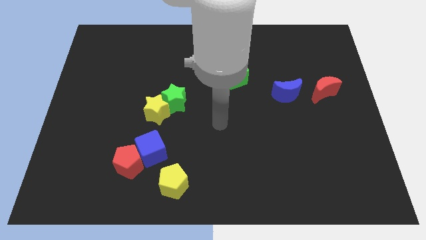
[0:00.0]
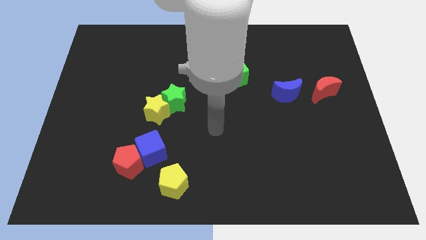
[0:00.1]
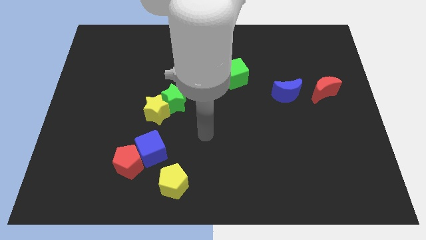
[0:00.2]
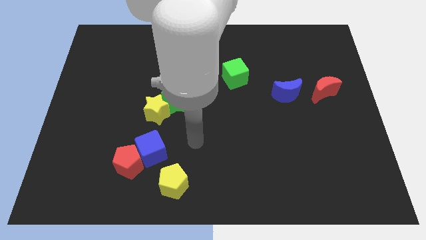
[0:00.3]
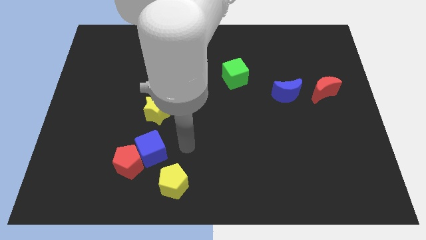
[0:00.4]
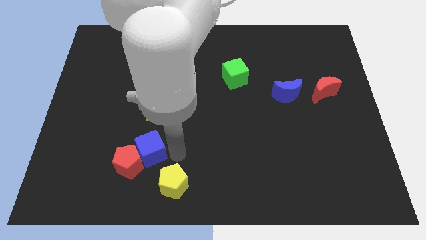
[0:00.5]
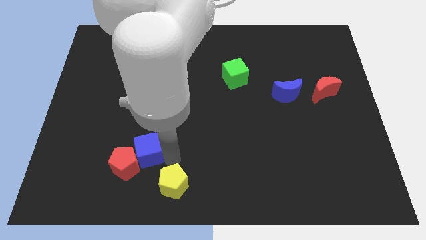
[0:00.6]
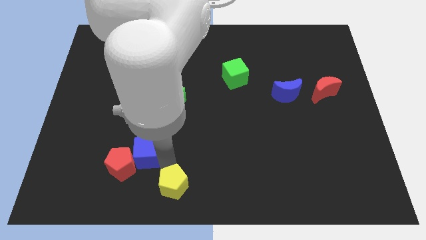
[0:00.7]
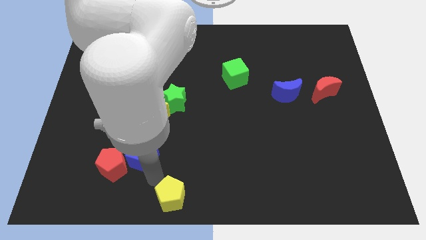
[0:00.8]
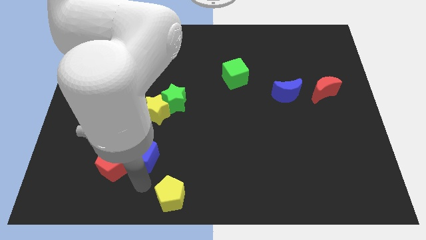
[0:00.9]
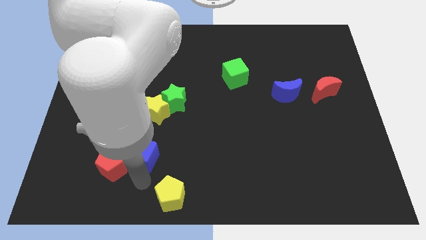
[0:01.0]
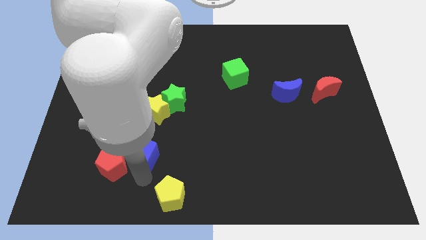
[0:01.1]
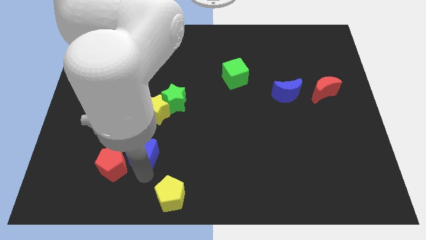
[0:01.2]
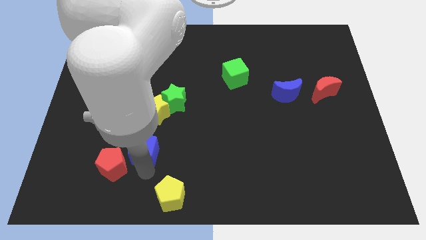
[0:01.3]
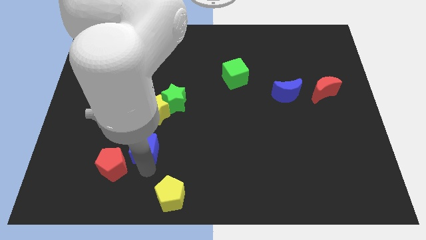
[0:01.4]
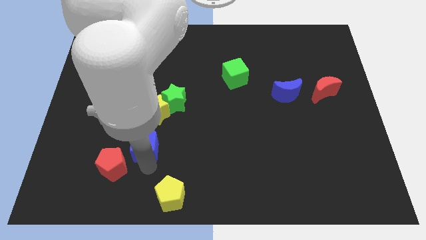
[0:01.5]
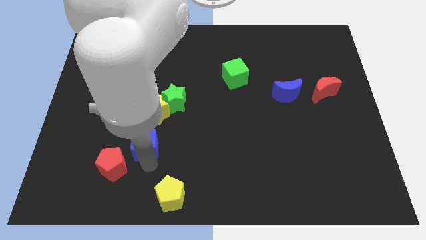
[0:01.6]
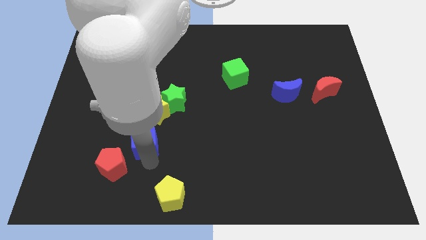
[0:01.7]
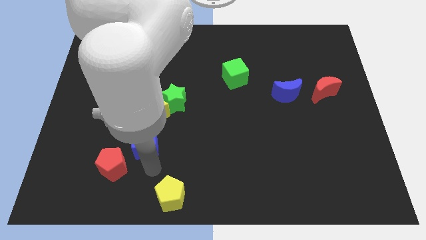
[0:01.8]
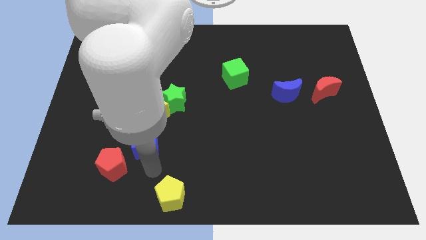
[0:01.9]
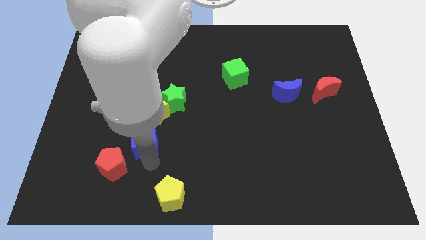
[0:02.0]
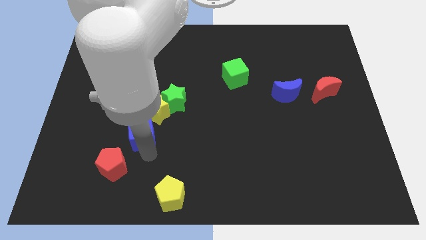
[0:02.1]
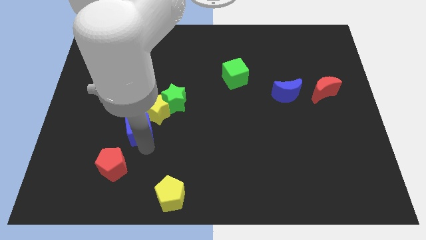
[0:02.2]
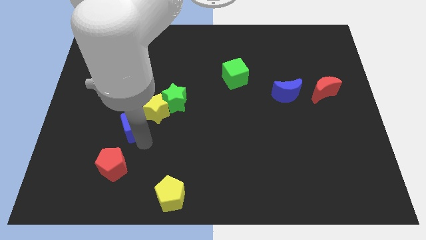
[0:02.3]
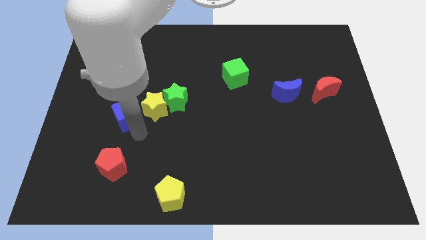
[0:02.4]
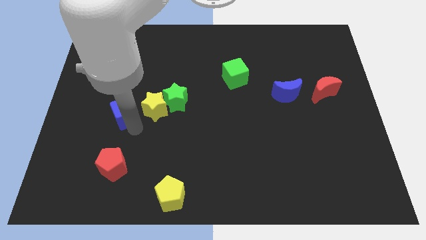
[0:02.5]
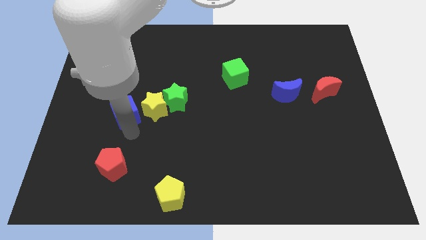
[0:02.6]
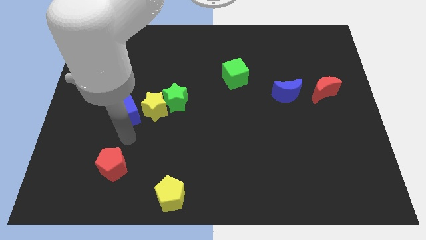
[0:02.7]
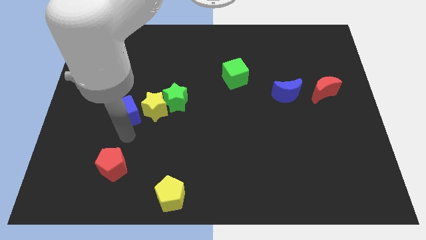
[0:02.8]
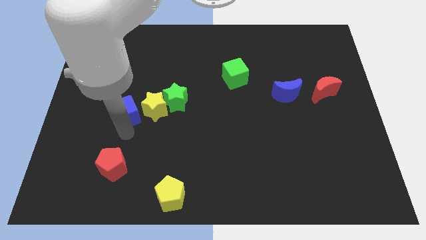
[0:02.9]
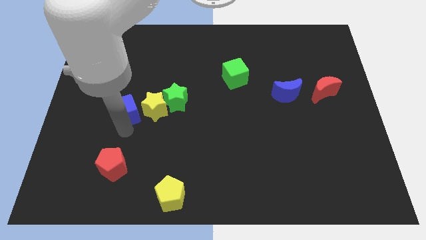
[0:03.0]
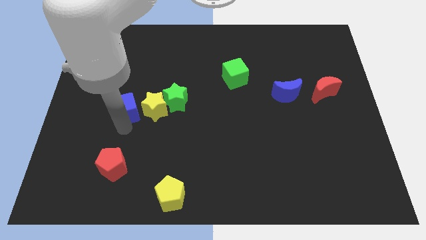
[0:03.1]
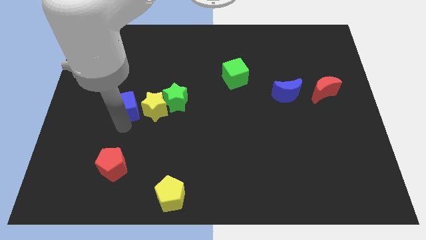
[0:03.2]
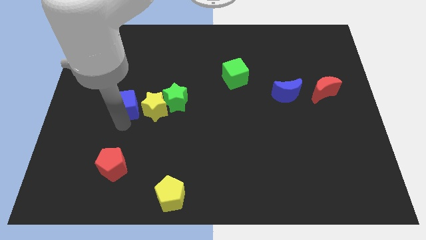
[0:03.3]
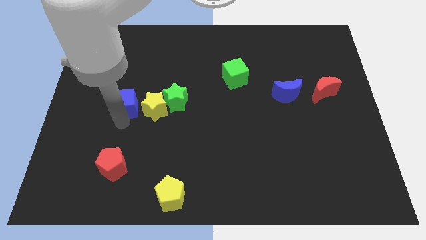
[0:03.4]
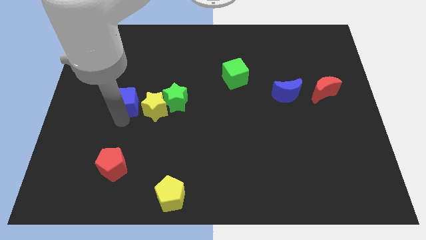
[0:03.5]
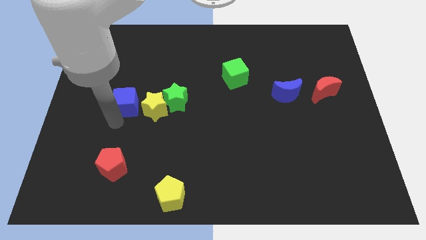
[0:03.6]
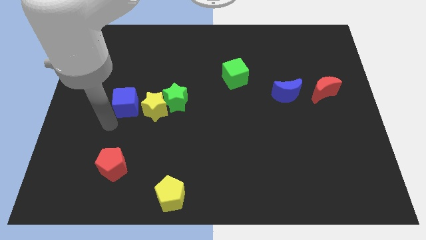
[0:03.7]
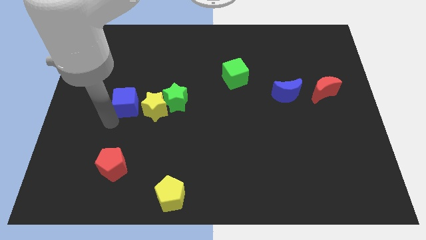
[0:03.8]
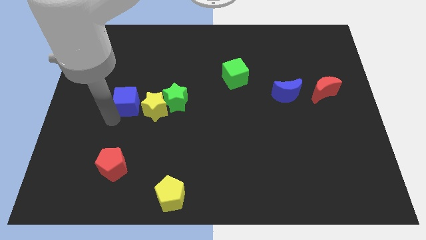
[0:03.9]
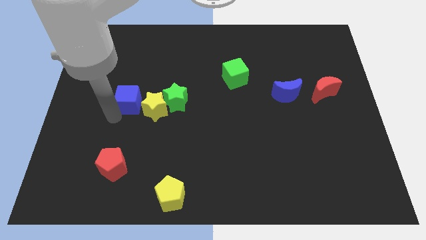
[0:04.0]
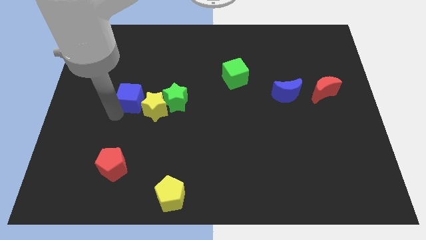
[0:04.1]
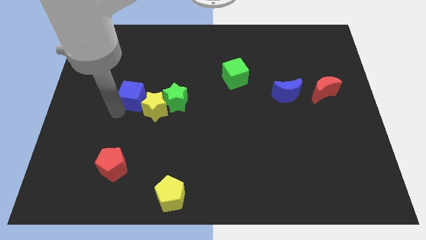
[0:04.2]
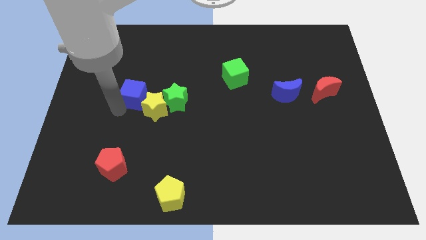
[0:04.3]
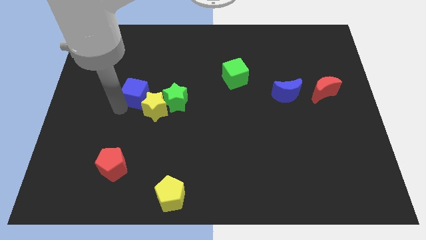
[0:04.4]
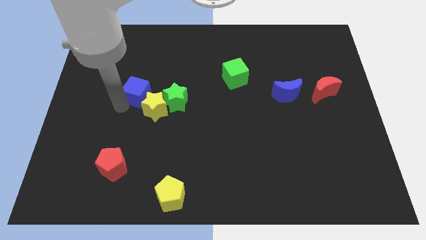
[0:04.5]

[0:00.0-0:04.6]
slide the blue cube above the yellow star

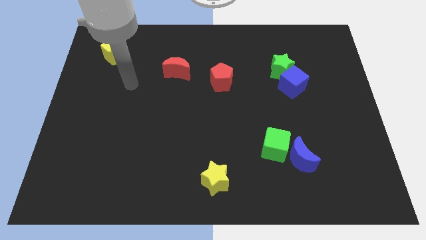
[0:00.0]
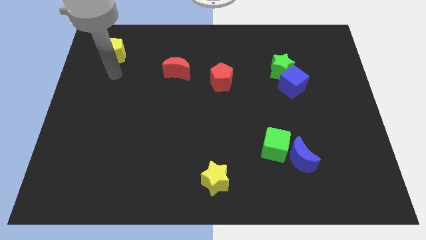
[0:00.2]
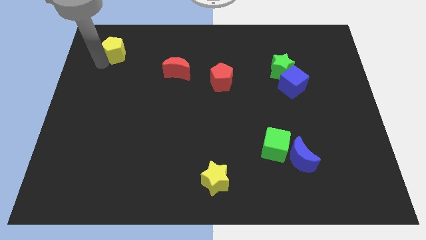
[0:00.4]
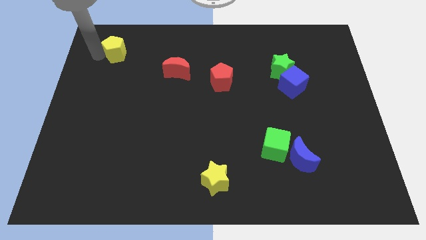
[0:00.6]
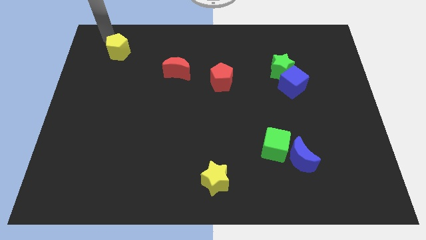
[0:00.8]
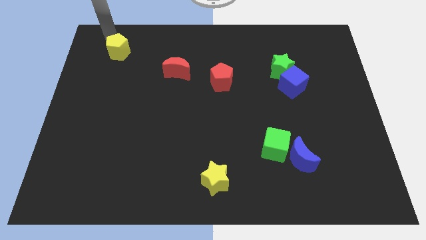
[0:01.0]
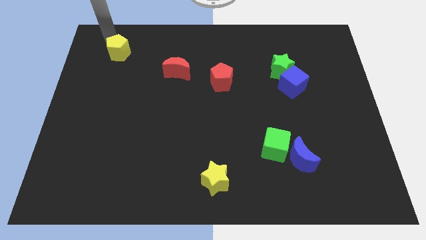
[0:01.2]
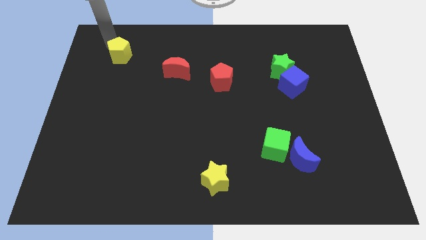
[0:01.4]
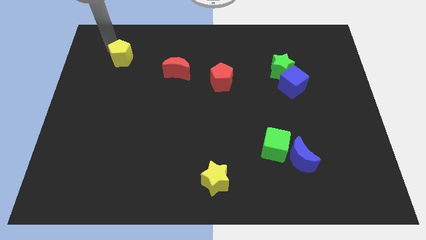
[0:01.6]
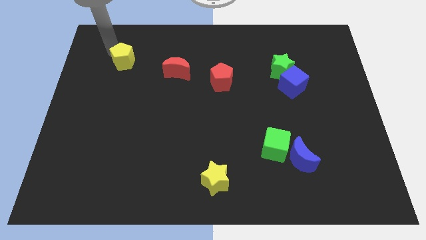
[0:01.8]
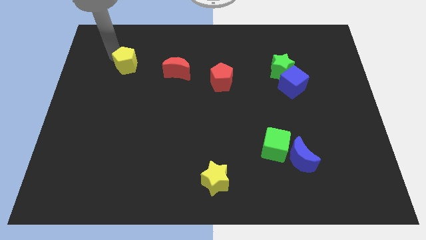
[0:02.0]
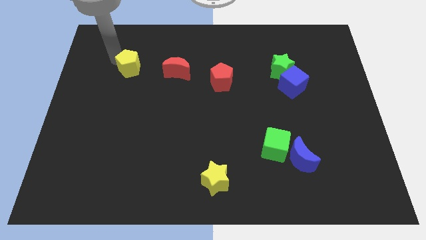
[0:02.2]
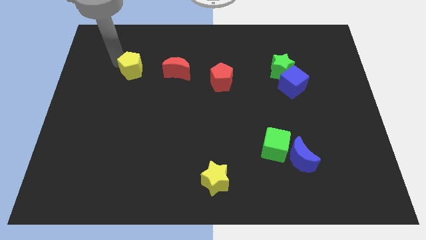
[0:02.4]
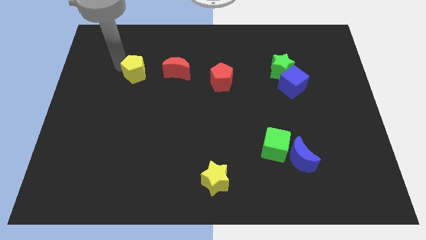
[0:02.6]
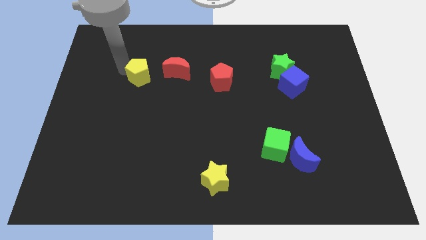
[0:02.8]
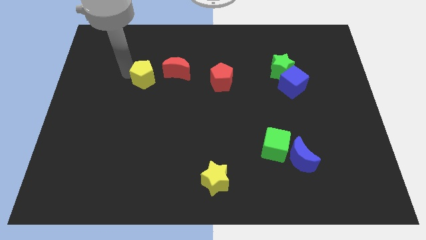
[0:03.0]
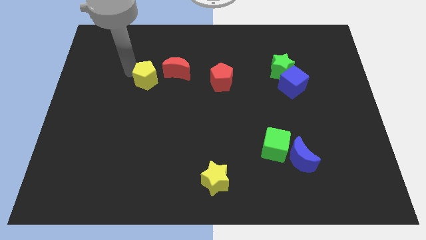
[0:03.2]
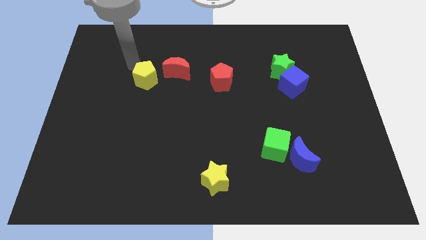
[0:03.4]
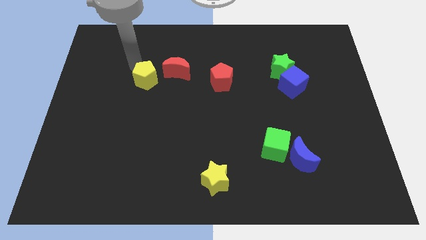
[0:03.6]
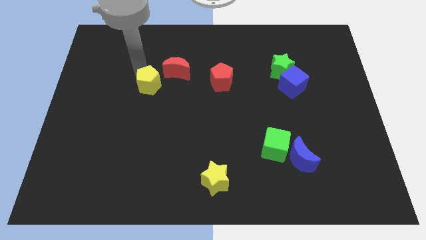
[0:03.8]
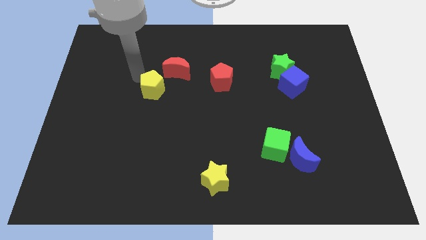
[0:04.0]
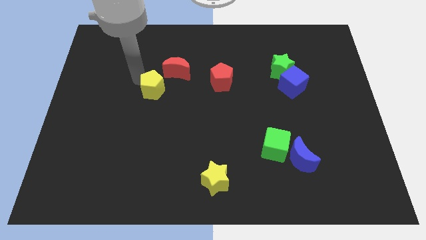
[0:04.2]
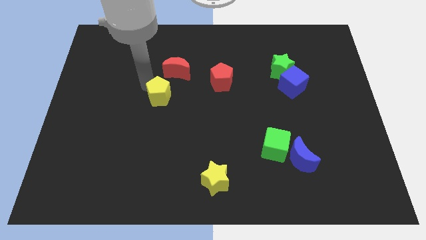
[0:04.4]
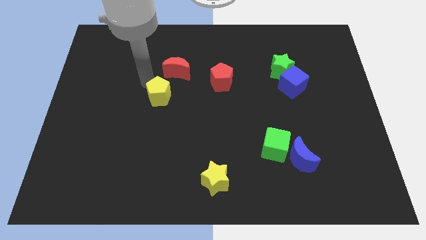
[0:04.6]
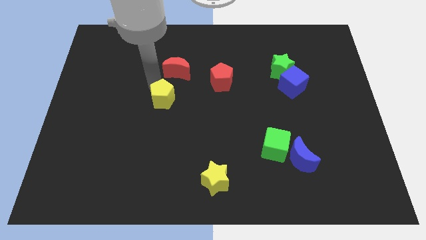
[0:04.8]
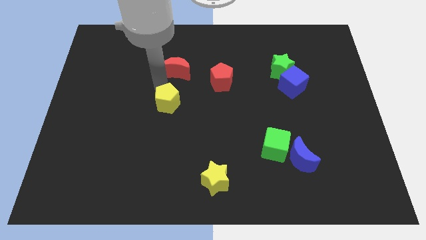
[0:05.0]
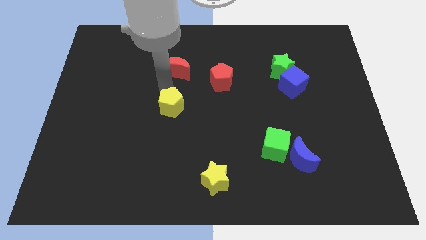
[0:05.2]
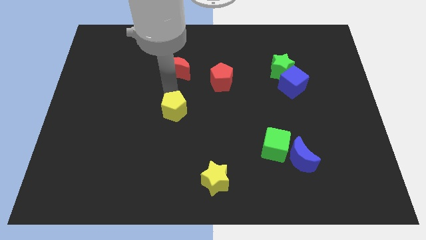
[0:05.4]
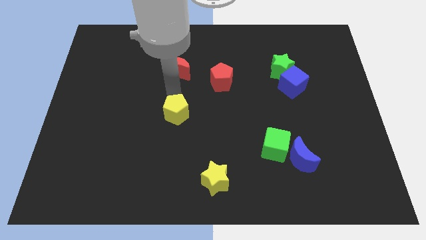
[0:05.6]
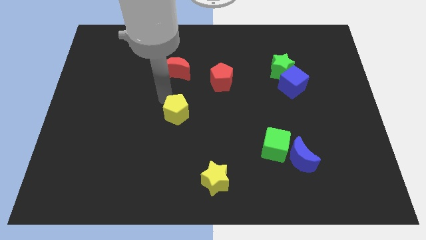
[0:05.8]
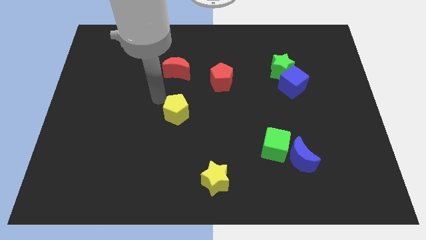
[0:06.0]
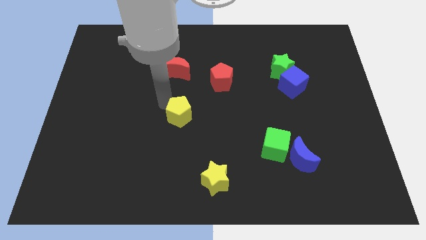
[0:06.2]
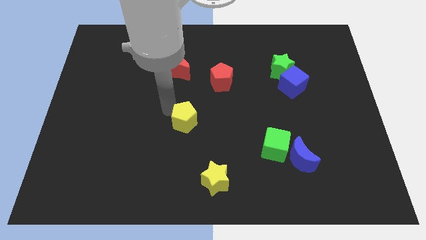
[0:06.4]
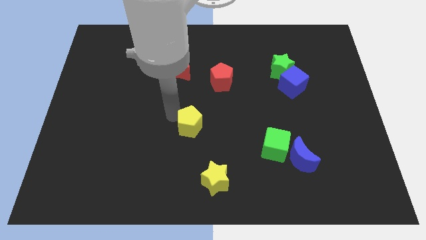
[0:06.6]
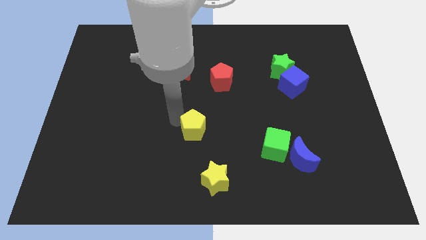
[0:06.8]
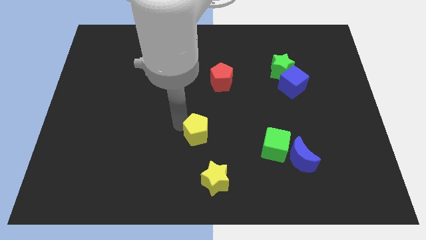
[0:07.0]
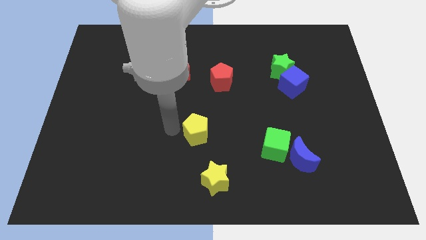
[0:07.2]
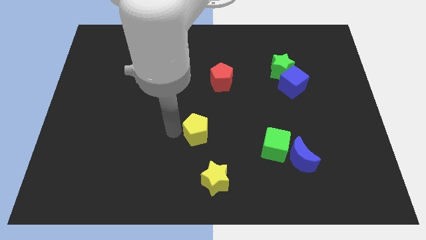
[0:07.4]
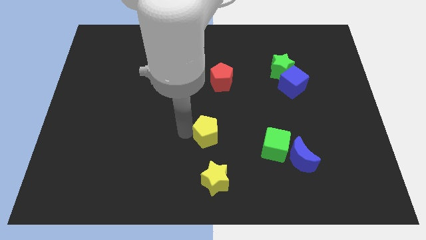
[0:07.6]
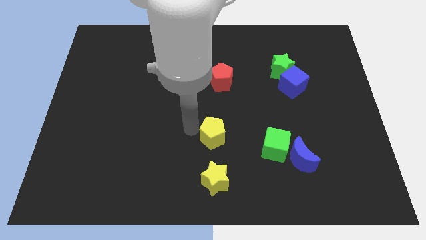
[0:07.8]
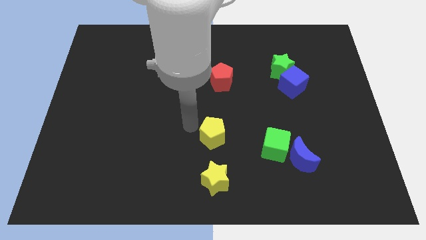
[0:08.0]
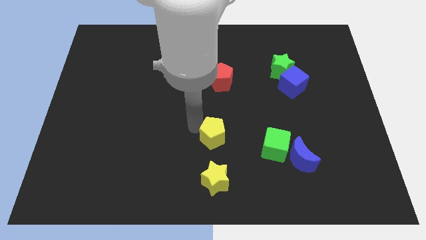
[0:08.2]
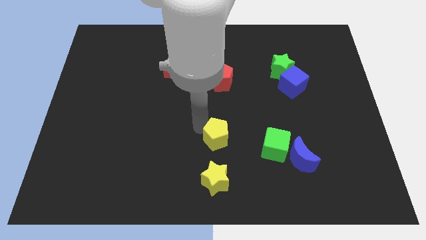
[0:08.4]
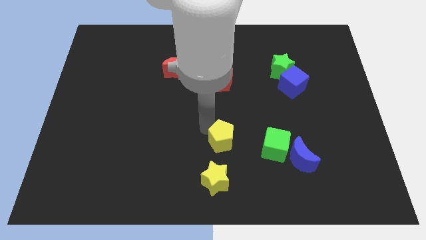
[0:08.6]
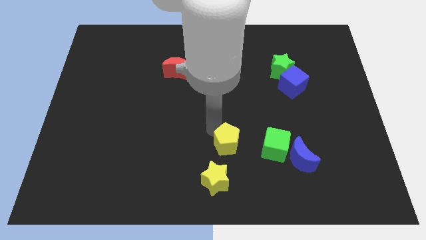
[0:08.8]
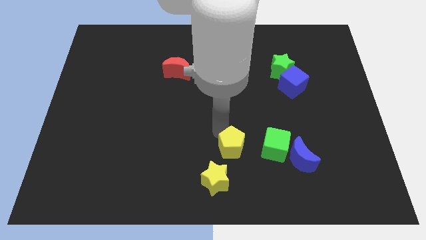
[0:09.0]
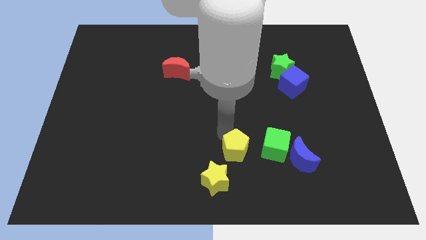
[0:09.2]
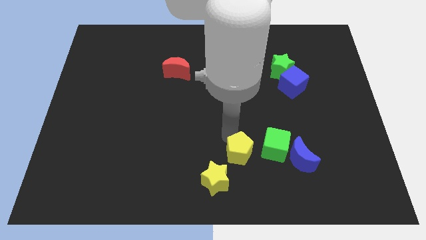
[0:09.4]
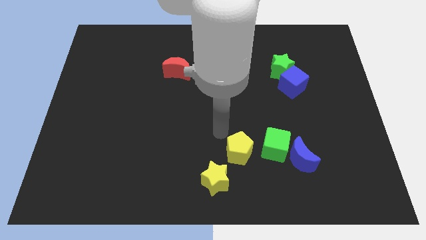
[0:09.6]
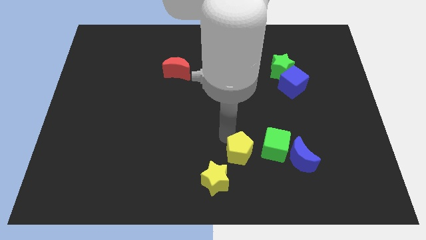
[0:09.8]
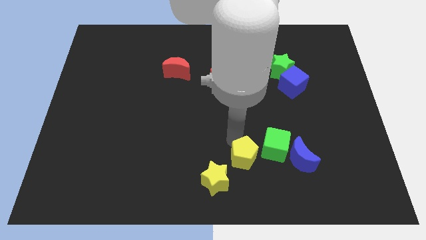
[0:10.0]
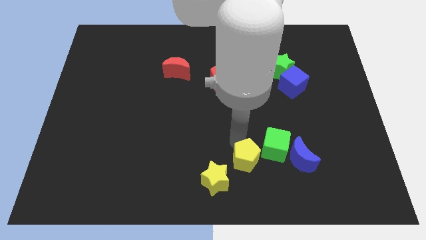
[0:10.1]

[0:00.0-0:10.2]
push the yellow pentagon to the right side of the yellow star
